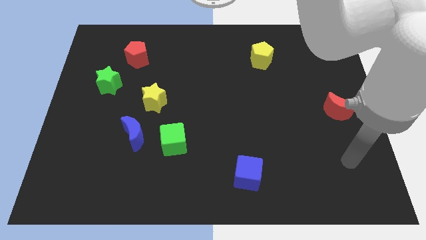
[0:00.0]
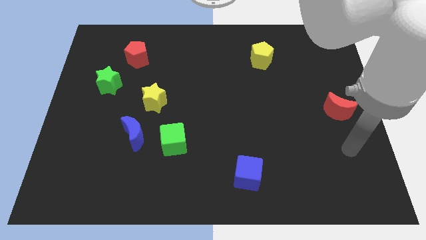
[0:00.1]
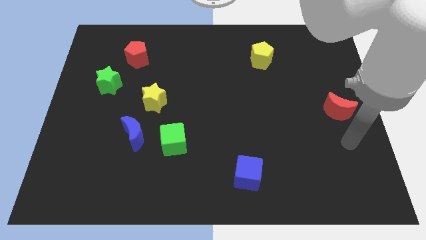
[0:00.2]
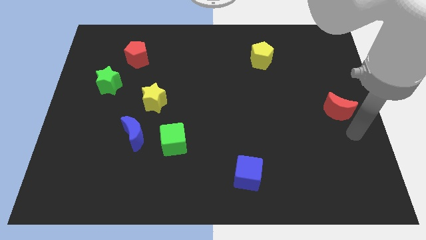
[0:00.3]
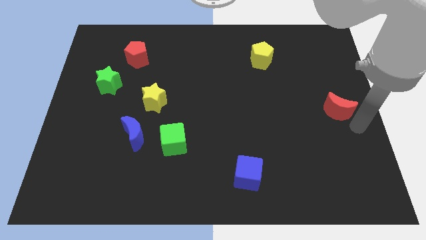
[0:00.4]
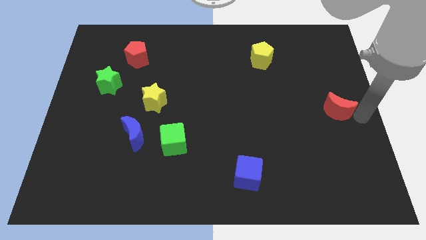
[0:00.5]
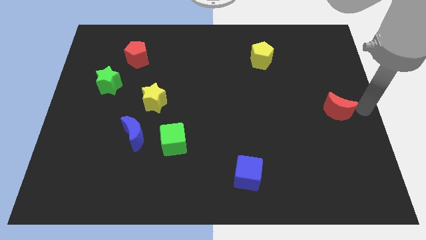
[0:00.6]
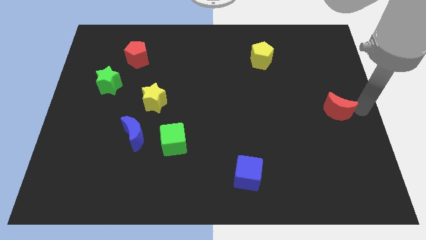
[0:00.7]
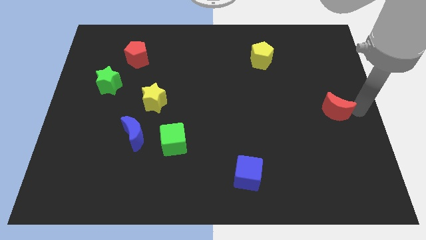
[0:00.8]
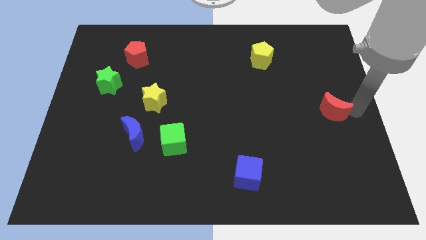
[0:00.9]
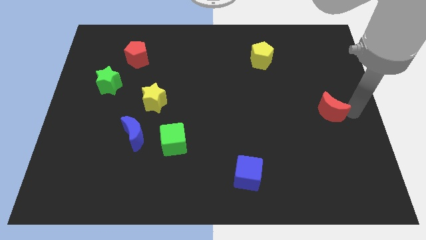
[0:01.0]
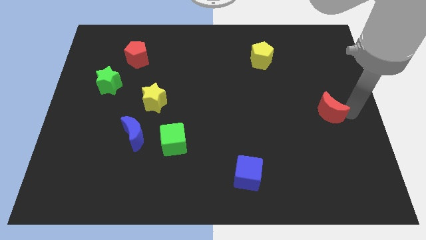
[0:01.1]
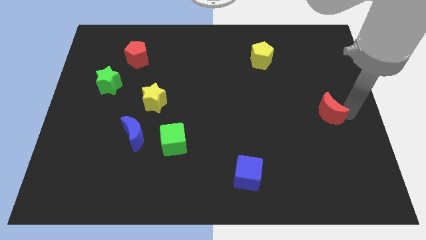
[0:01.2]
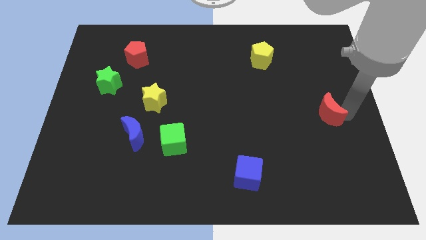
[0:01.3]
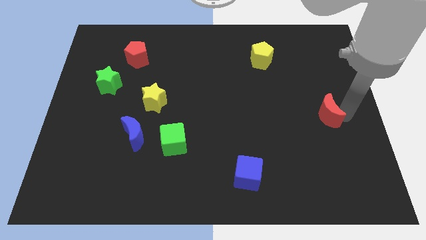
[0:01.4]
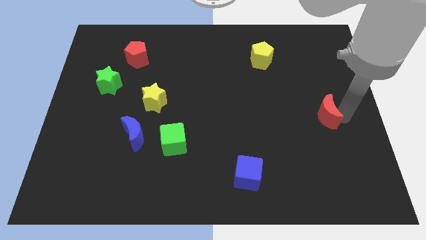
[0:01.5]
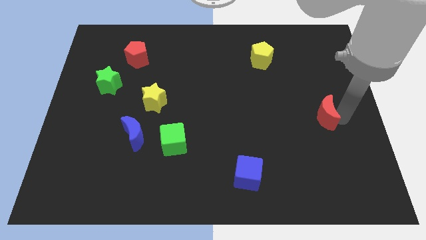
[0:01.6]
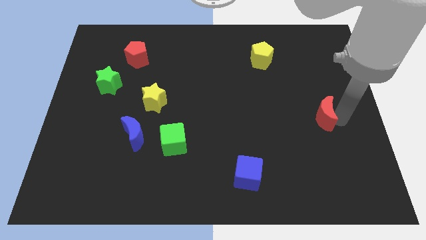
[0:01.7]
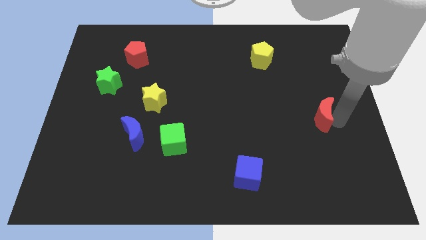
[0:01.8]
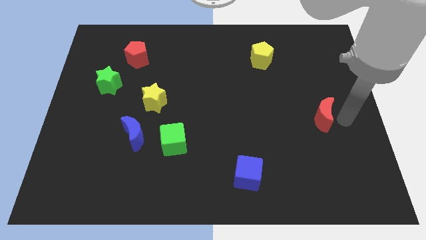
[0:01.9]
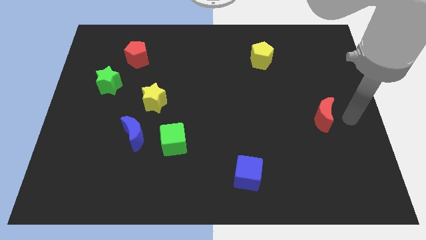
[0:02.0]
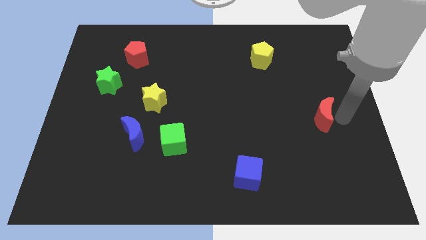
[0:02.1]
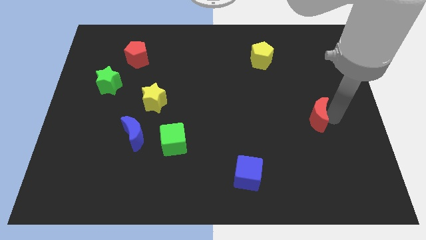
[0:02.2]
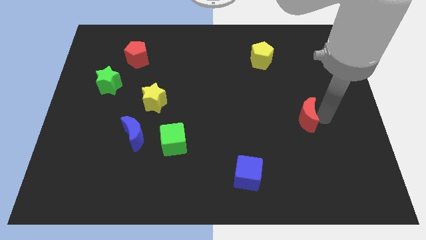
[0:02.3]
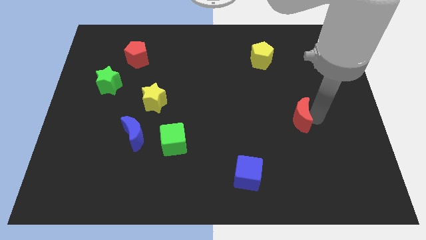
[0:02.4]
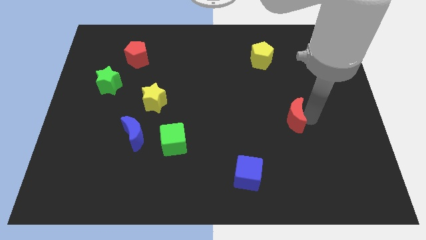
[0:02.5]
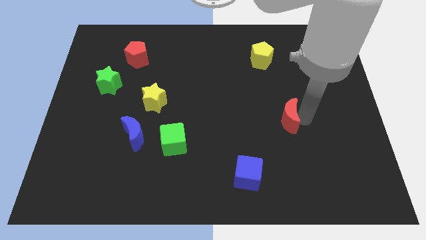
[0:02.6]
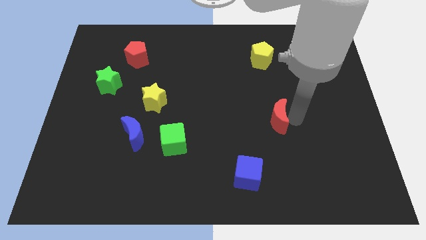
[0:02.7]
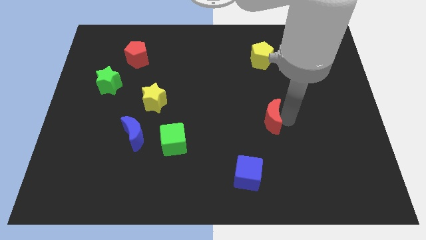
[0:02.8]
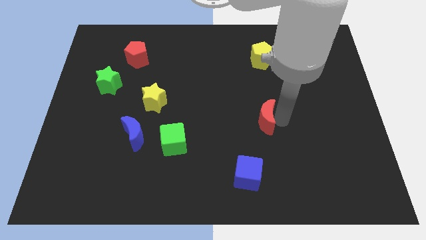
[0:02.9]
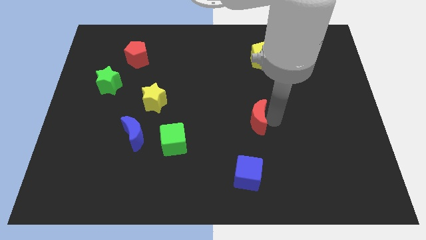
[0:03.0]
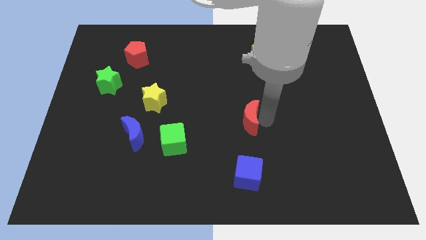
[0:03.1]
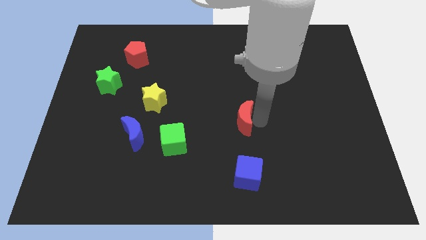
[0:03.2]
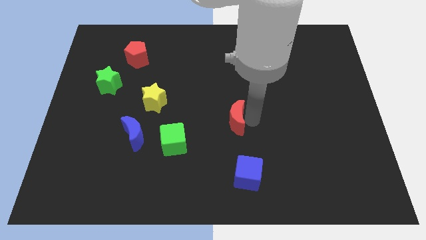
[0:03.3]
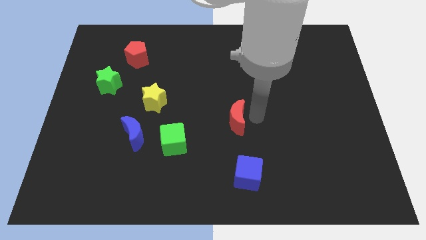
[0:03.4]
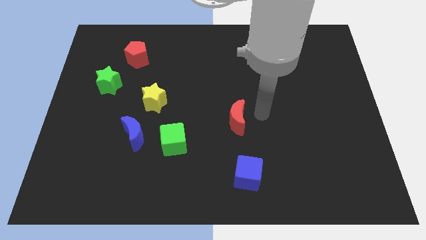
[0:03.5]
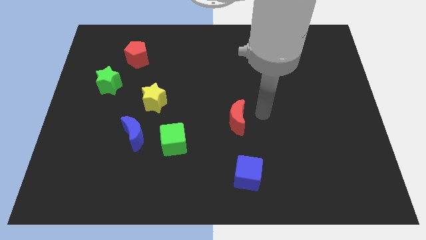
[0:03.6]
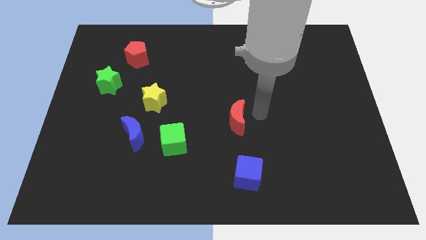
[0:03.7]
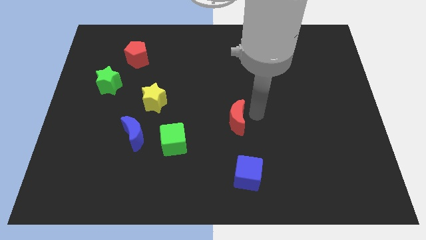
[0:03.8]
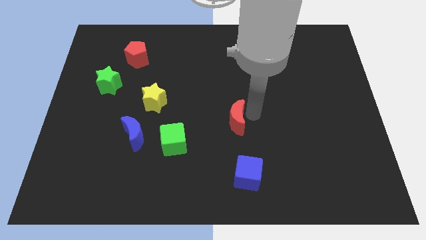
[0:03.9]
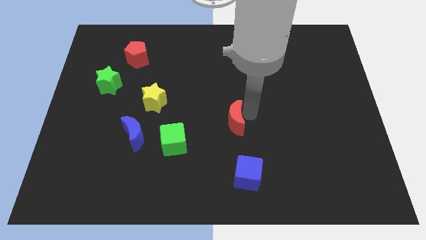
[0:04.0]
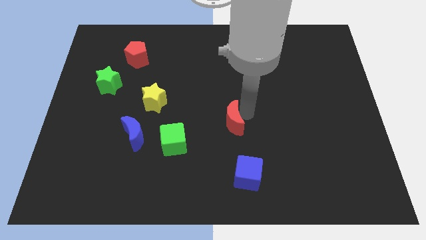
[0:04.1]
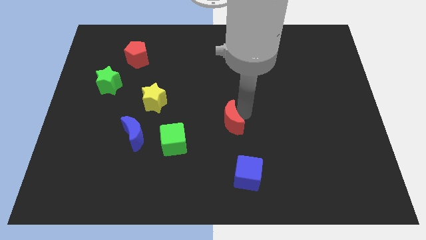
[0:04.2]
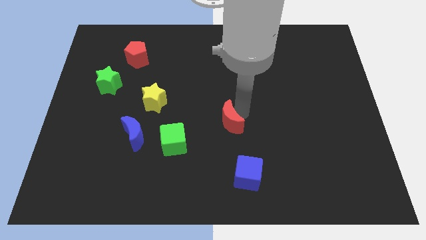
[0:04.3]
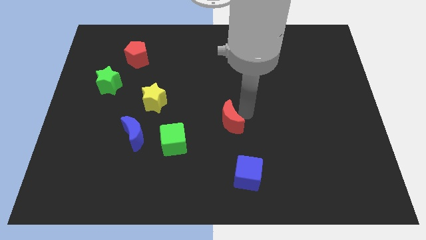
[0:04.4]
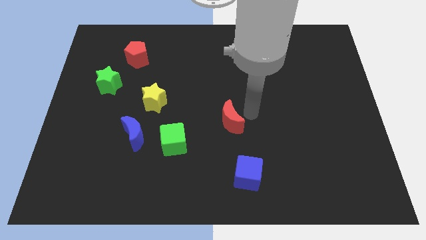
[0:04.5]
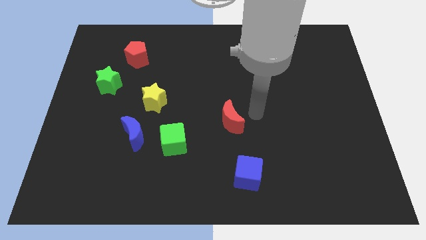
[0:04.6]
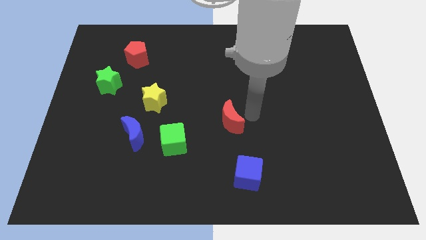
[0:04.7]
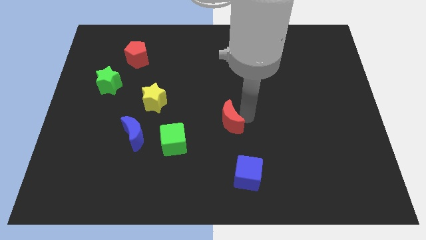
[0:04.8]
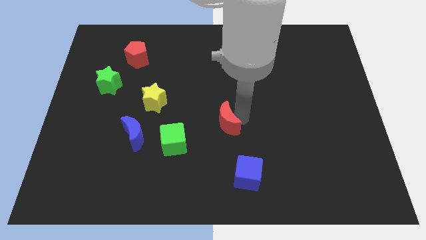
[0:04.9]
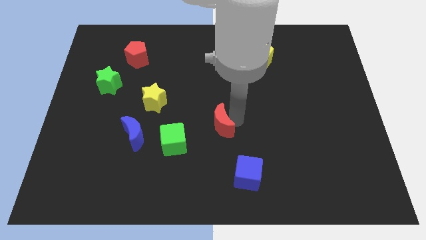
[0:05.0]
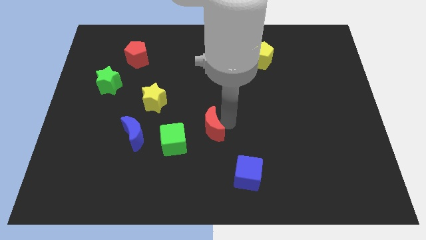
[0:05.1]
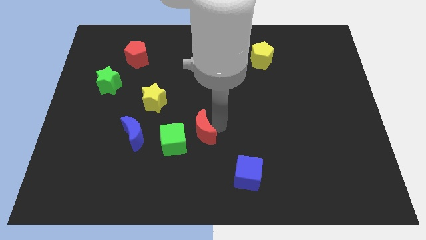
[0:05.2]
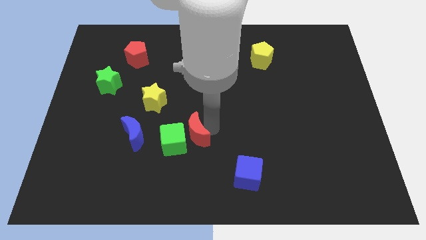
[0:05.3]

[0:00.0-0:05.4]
move the red moon next to the green cube

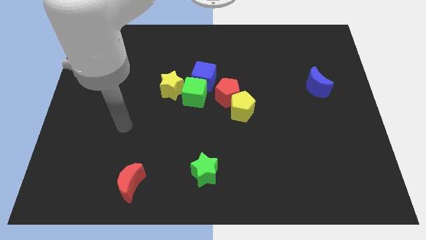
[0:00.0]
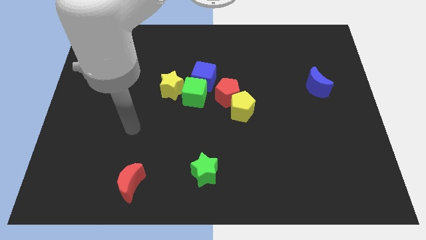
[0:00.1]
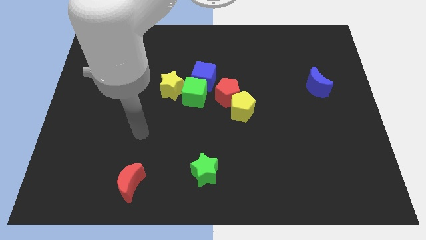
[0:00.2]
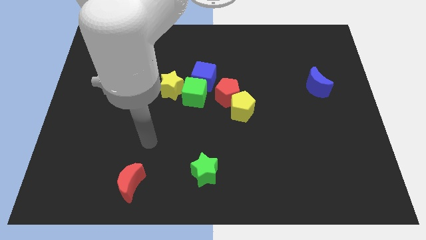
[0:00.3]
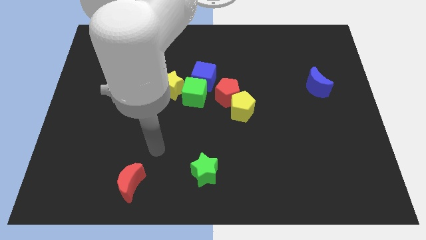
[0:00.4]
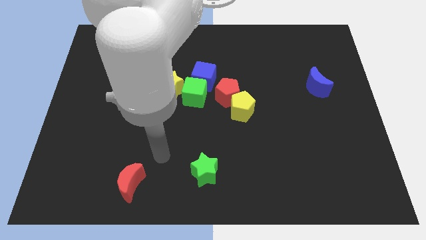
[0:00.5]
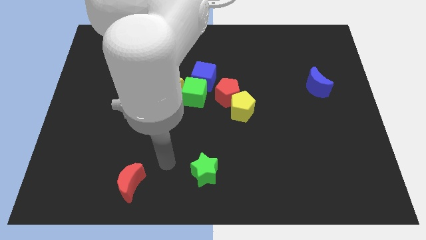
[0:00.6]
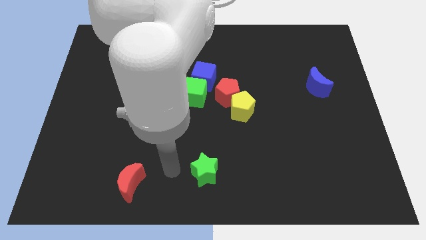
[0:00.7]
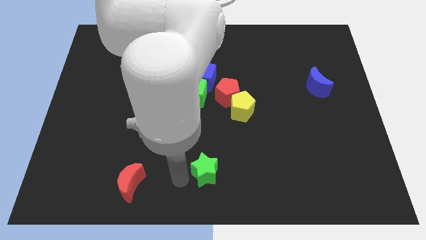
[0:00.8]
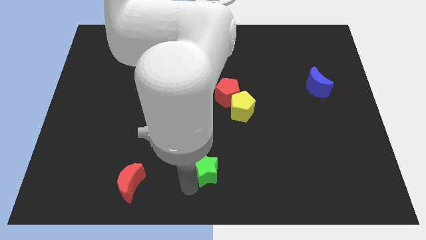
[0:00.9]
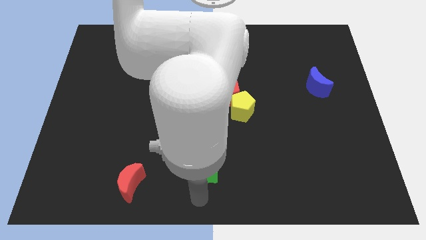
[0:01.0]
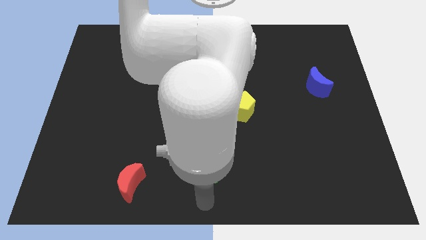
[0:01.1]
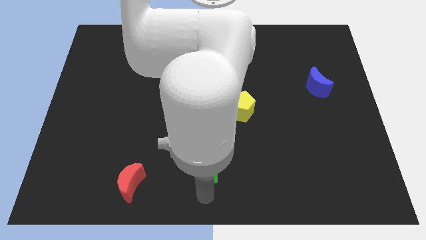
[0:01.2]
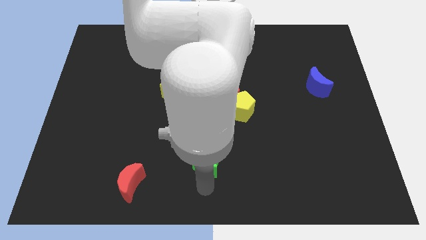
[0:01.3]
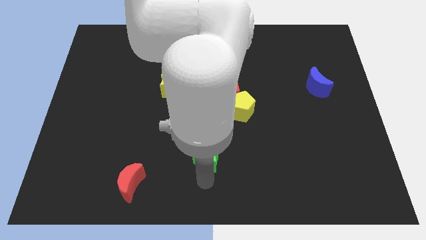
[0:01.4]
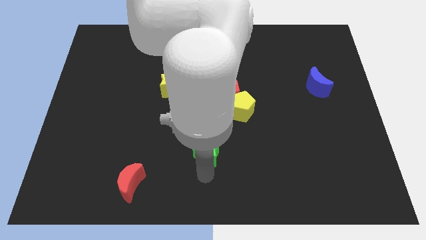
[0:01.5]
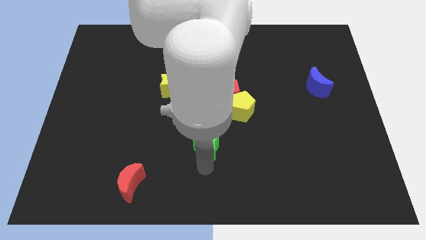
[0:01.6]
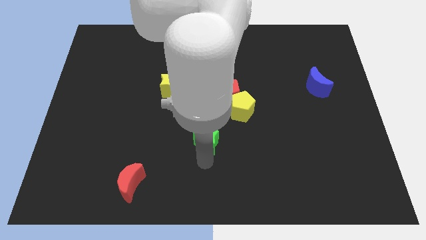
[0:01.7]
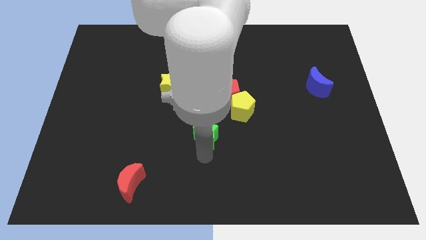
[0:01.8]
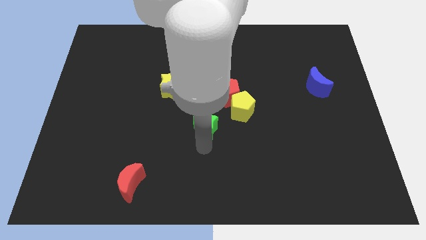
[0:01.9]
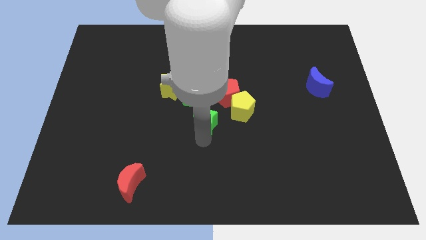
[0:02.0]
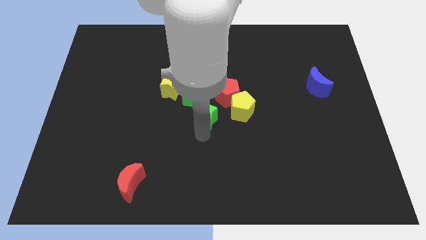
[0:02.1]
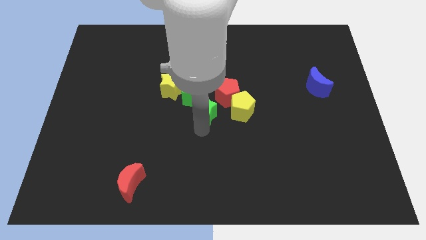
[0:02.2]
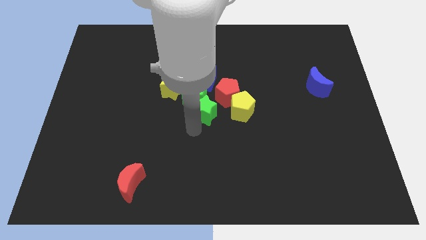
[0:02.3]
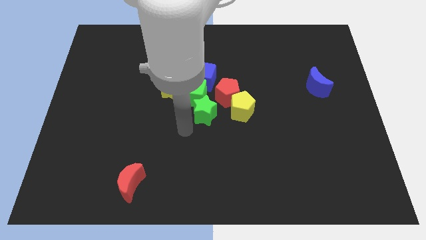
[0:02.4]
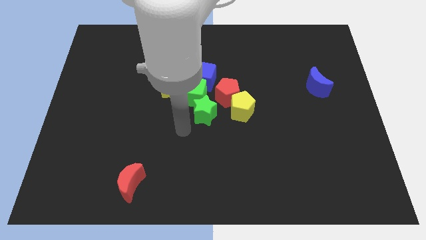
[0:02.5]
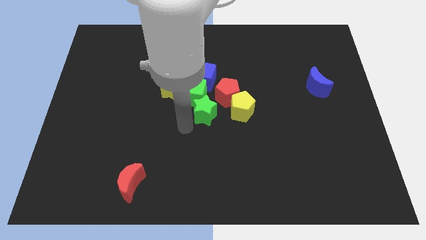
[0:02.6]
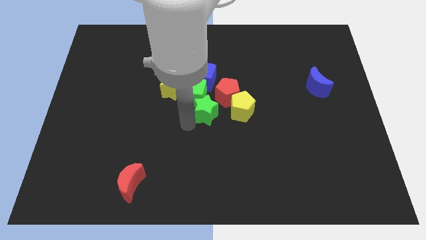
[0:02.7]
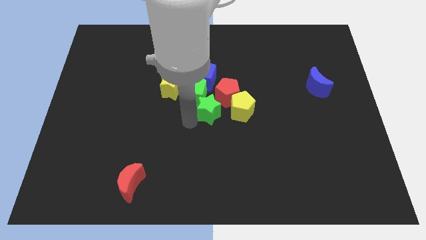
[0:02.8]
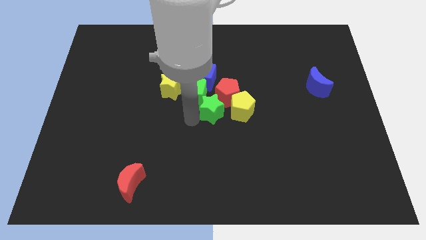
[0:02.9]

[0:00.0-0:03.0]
move the green star close to the red pentagon
